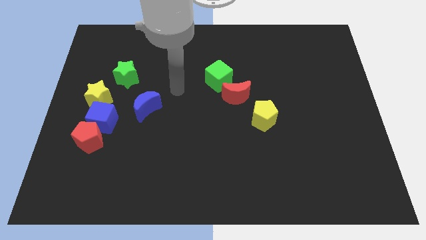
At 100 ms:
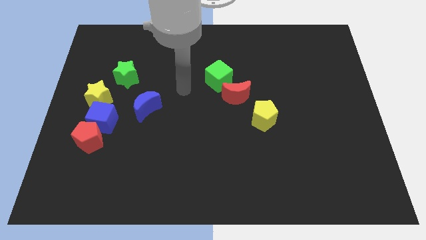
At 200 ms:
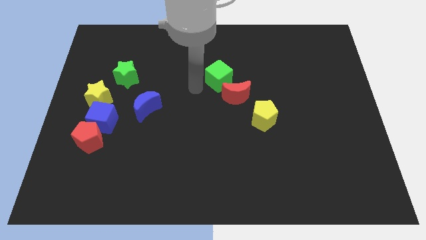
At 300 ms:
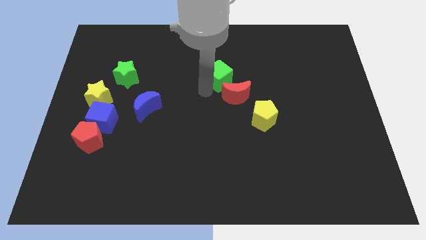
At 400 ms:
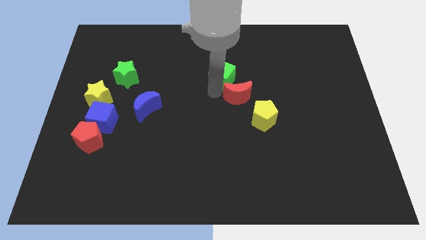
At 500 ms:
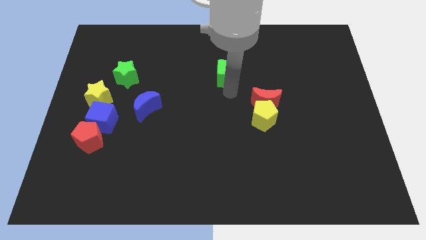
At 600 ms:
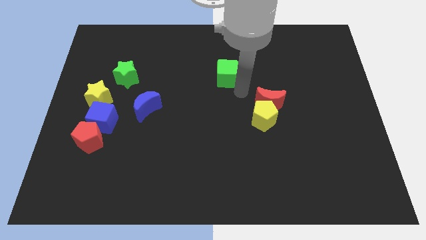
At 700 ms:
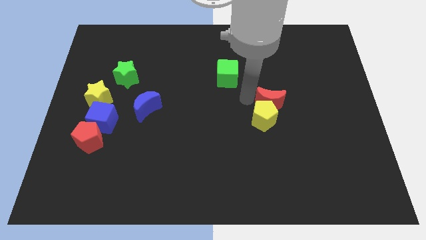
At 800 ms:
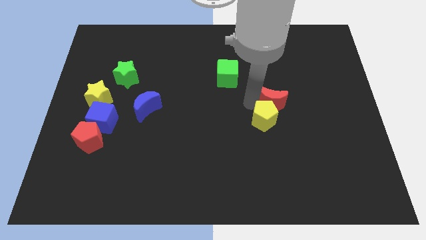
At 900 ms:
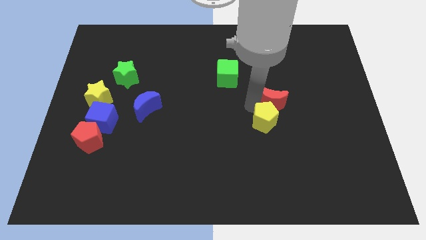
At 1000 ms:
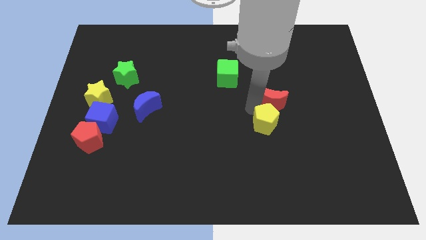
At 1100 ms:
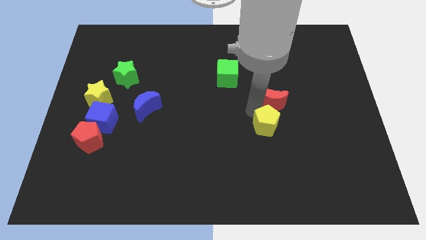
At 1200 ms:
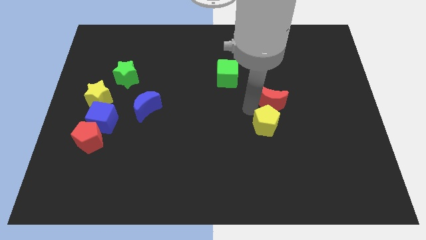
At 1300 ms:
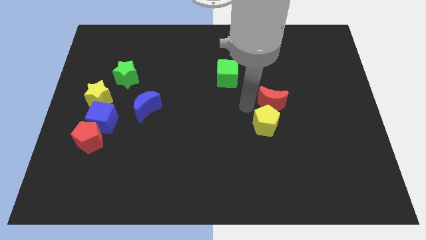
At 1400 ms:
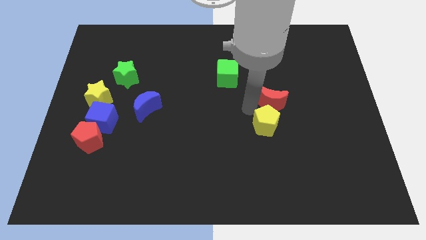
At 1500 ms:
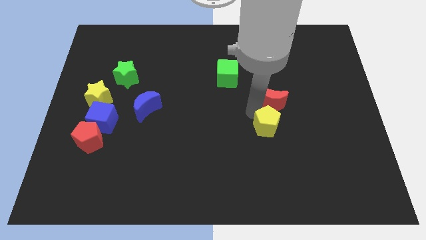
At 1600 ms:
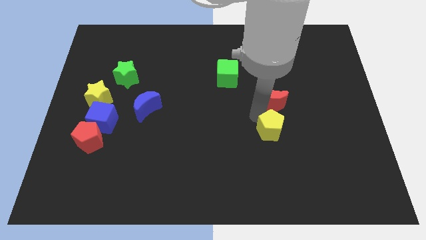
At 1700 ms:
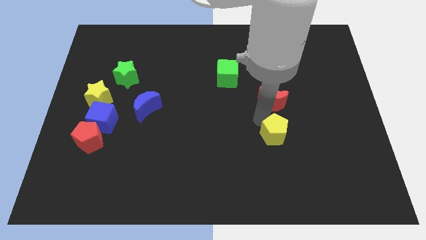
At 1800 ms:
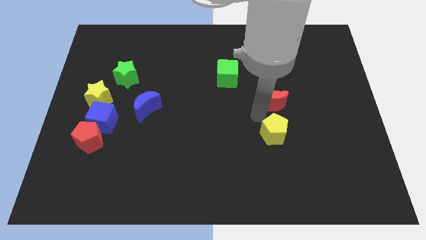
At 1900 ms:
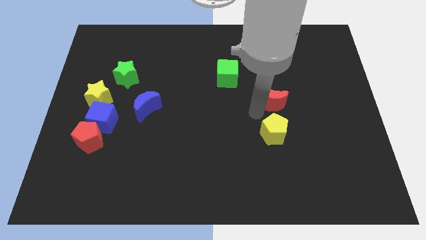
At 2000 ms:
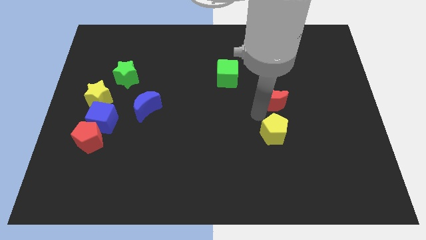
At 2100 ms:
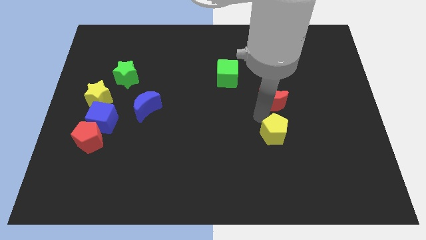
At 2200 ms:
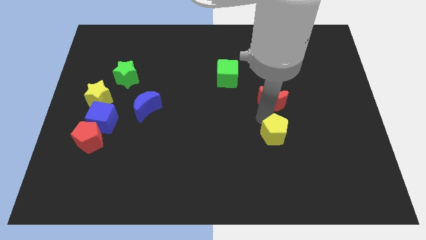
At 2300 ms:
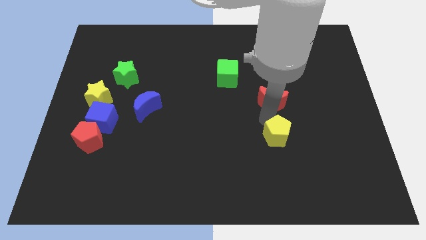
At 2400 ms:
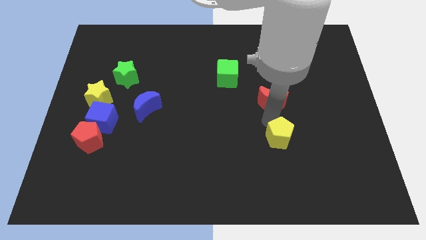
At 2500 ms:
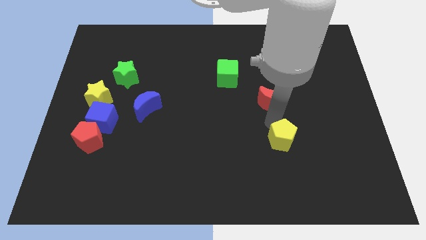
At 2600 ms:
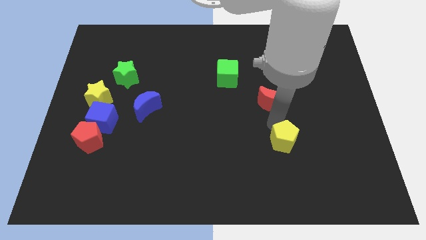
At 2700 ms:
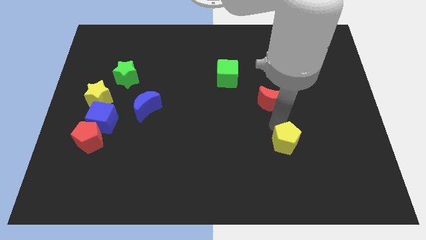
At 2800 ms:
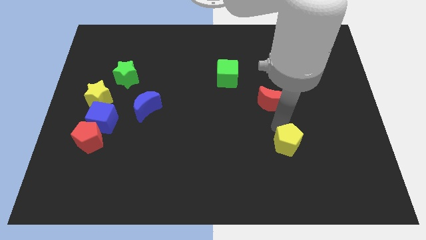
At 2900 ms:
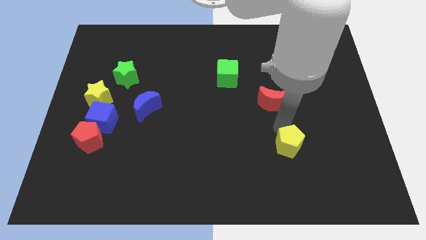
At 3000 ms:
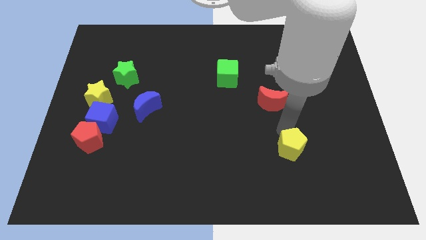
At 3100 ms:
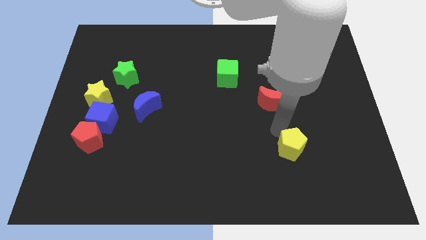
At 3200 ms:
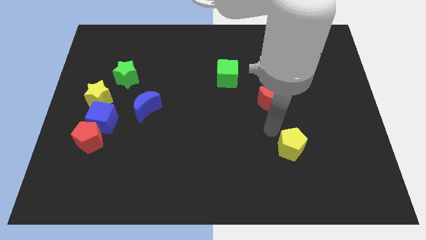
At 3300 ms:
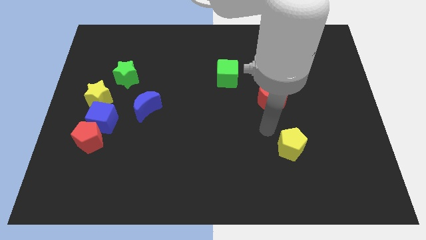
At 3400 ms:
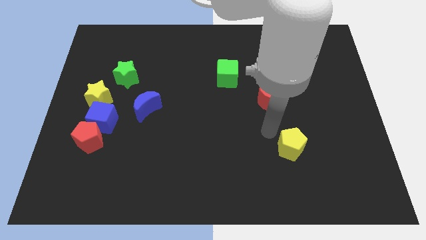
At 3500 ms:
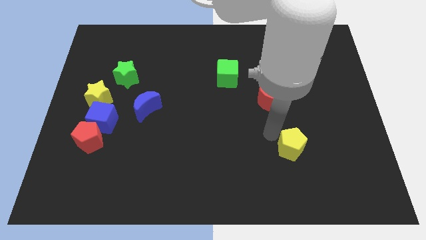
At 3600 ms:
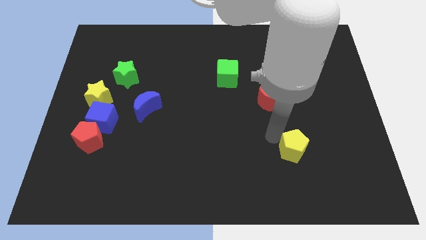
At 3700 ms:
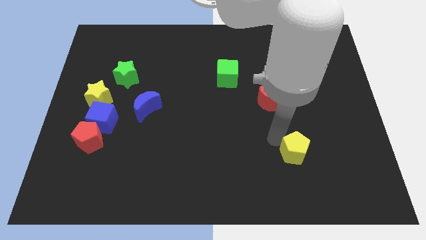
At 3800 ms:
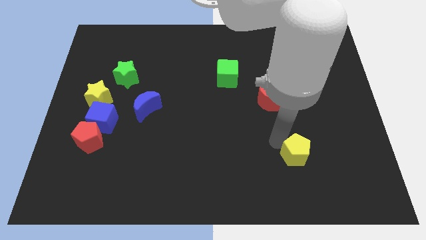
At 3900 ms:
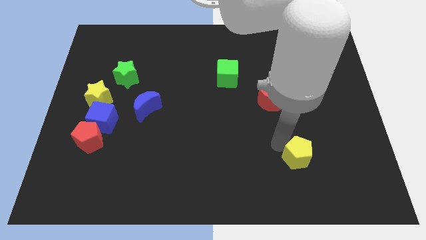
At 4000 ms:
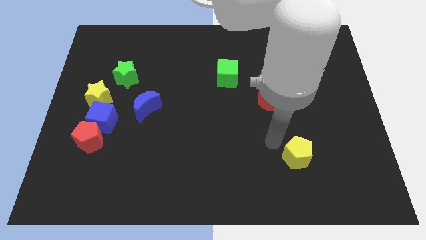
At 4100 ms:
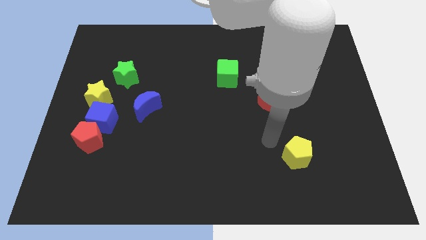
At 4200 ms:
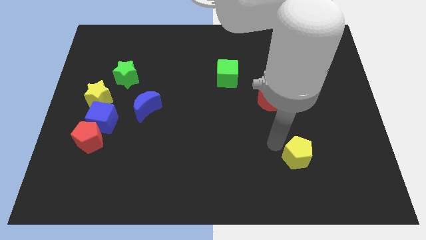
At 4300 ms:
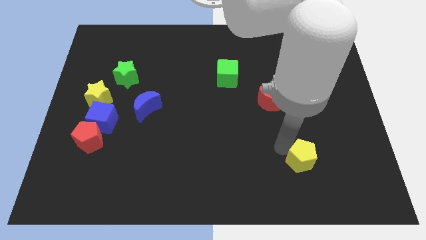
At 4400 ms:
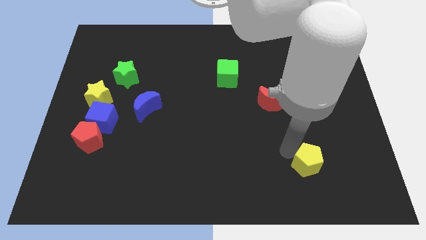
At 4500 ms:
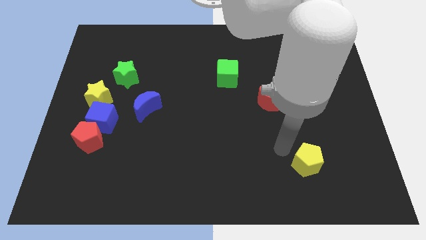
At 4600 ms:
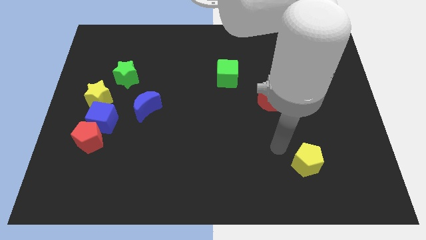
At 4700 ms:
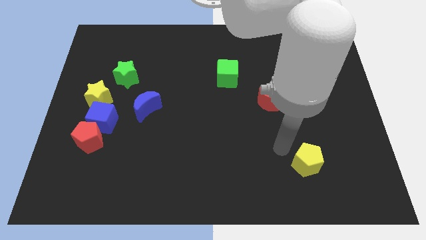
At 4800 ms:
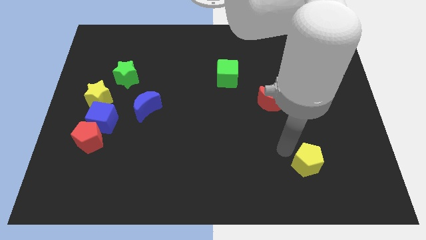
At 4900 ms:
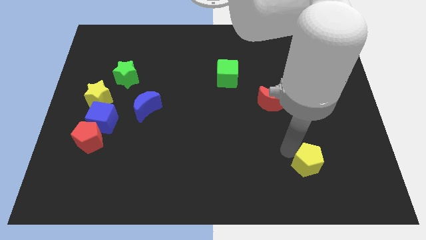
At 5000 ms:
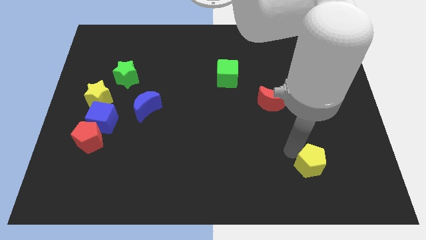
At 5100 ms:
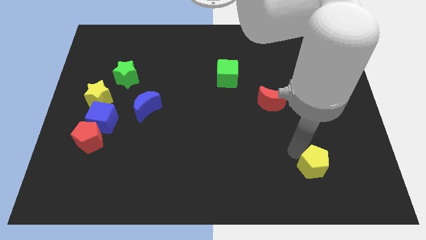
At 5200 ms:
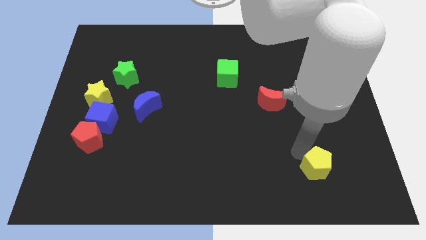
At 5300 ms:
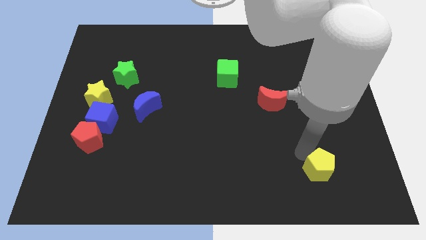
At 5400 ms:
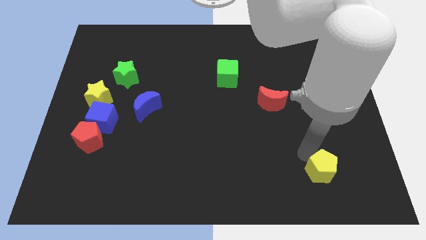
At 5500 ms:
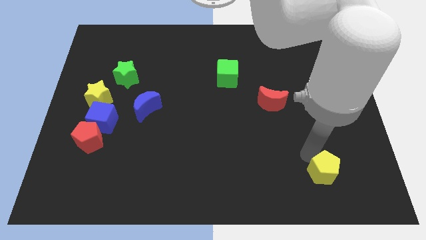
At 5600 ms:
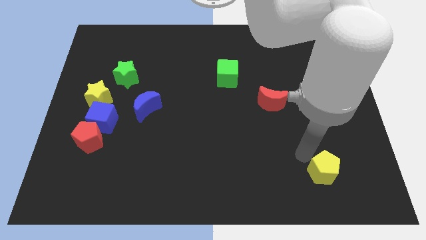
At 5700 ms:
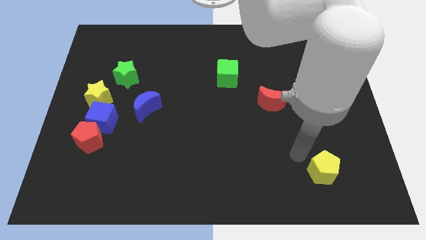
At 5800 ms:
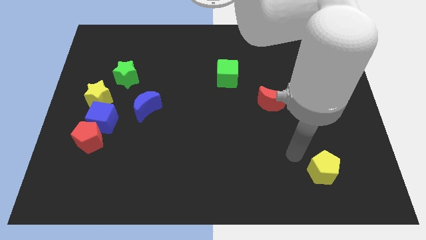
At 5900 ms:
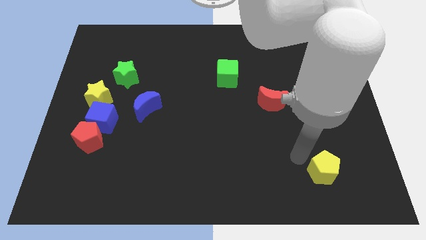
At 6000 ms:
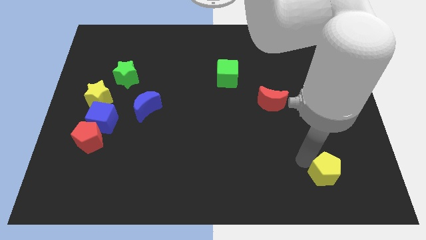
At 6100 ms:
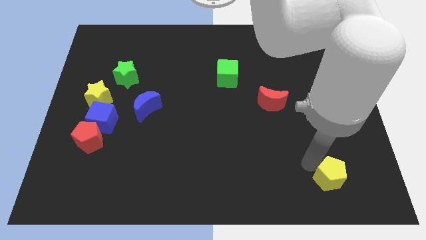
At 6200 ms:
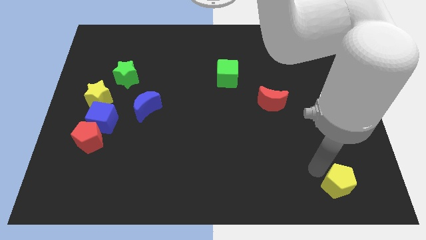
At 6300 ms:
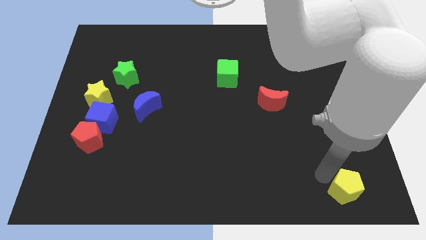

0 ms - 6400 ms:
slide the yellow pentagon to the bottom right

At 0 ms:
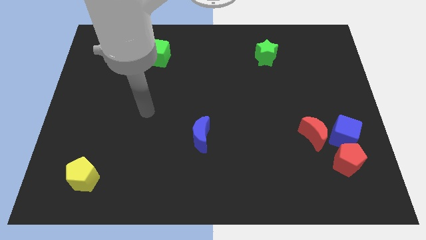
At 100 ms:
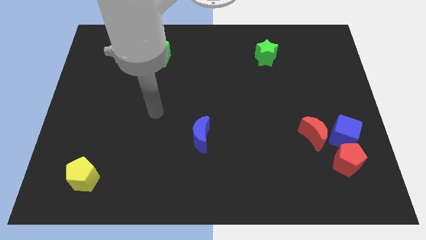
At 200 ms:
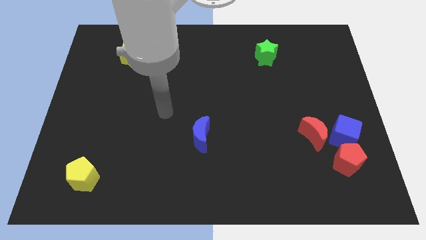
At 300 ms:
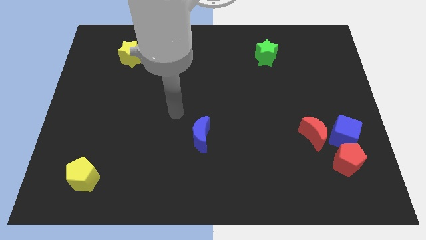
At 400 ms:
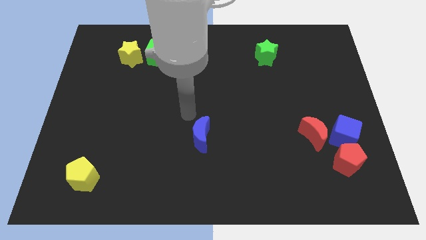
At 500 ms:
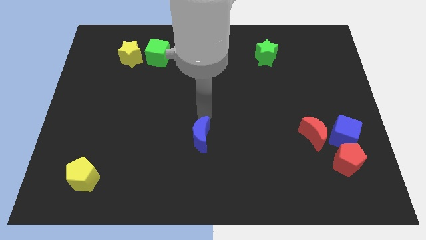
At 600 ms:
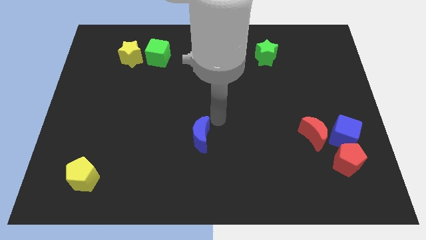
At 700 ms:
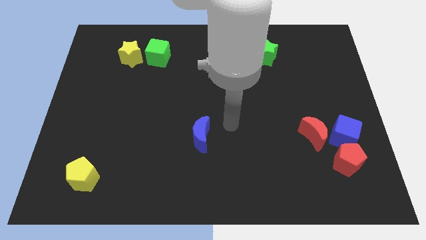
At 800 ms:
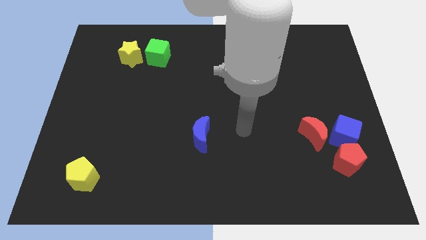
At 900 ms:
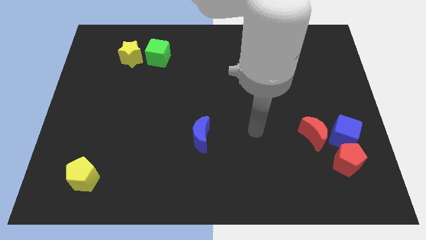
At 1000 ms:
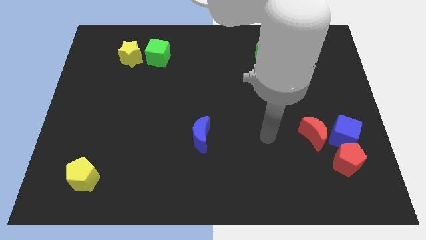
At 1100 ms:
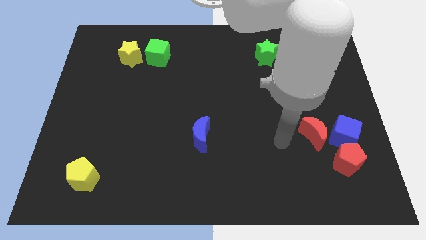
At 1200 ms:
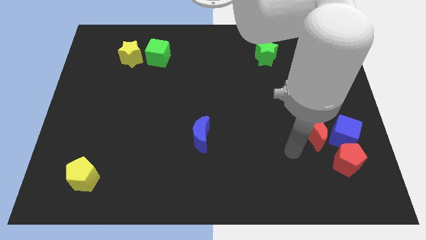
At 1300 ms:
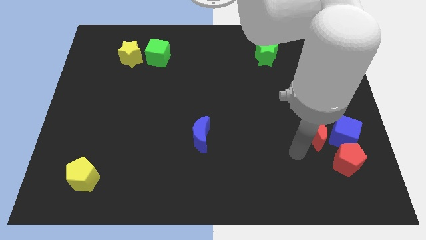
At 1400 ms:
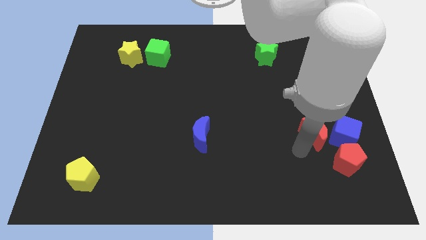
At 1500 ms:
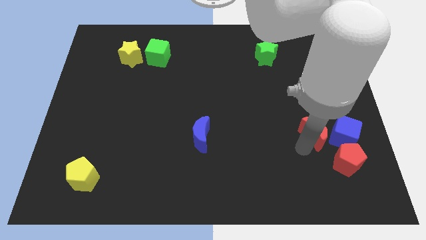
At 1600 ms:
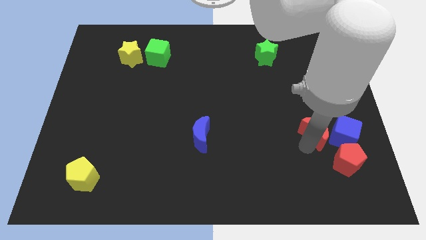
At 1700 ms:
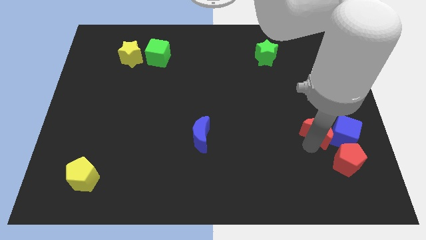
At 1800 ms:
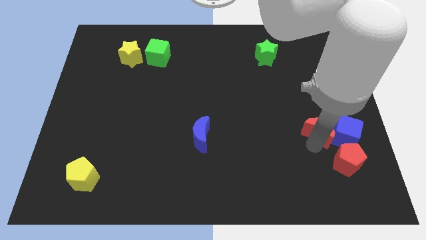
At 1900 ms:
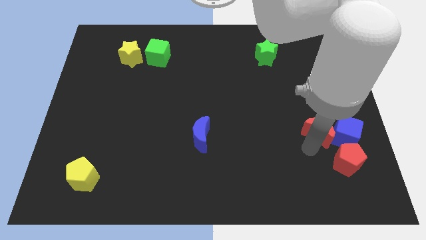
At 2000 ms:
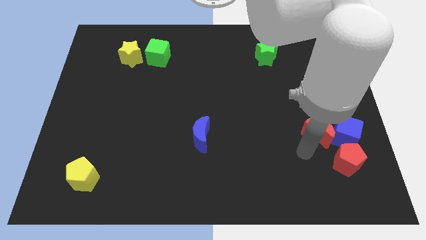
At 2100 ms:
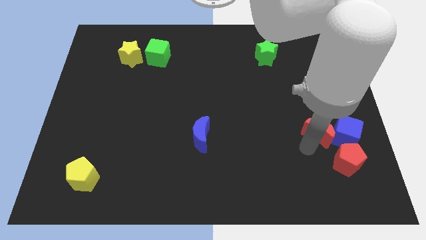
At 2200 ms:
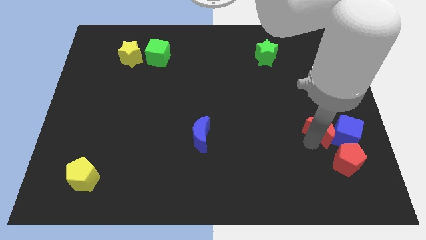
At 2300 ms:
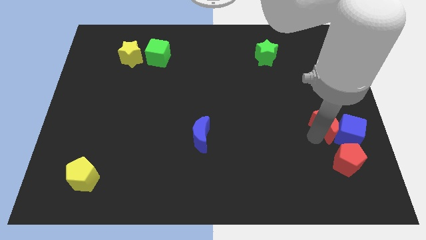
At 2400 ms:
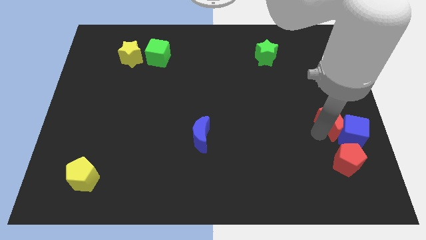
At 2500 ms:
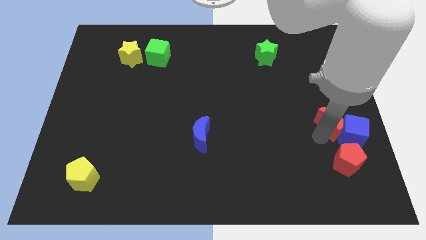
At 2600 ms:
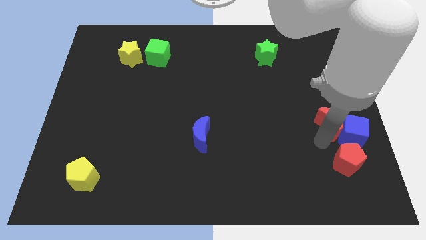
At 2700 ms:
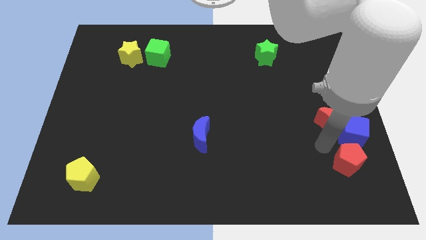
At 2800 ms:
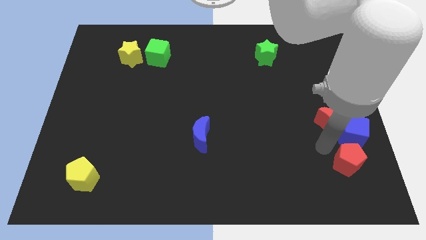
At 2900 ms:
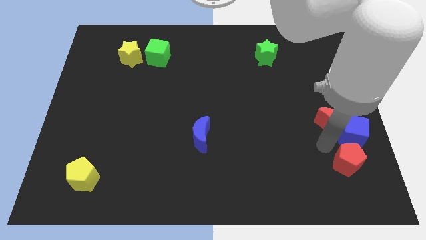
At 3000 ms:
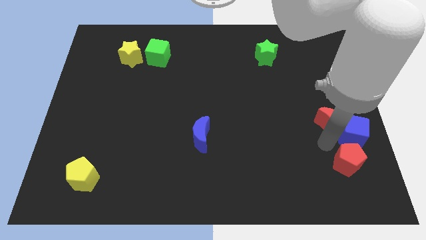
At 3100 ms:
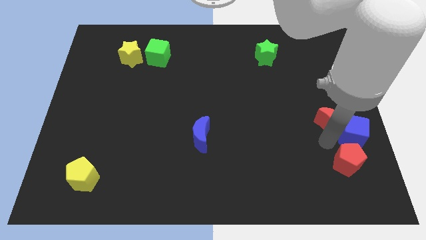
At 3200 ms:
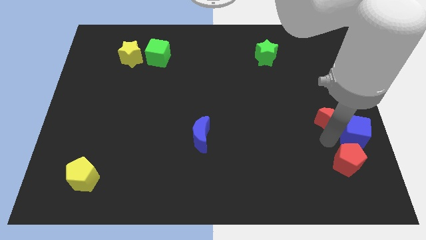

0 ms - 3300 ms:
put the red moon to the right side
